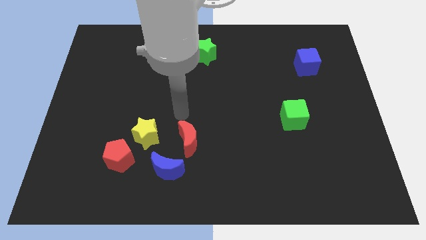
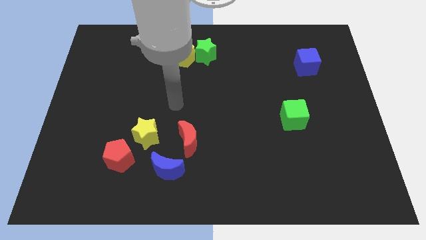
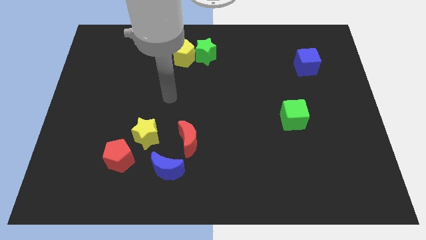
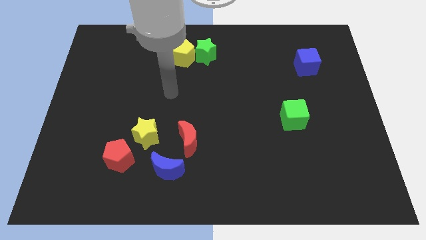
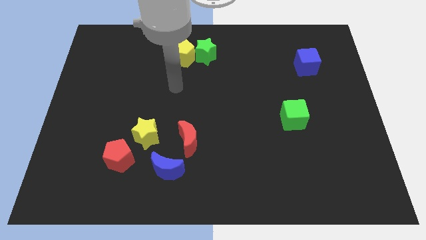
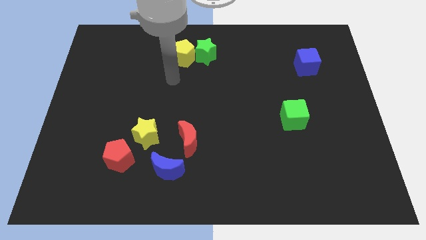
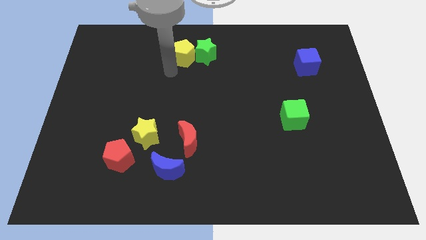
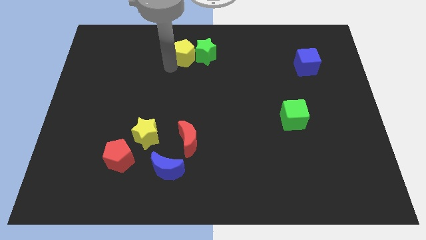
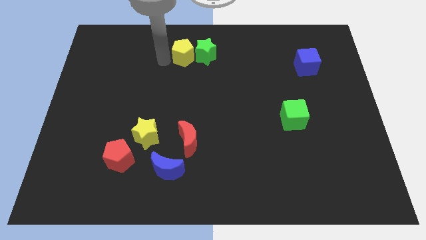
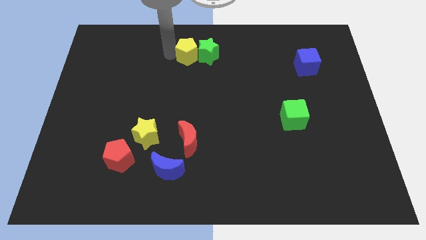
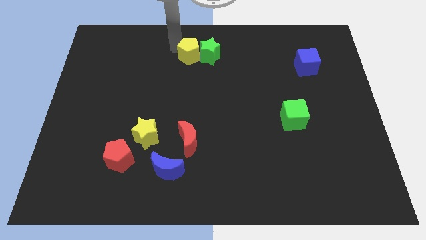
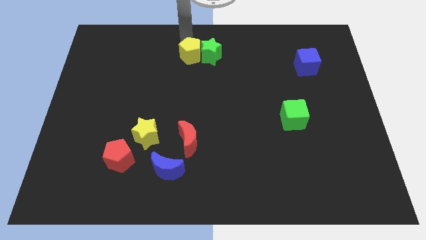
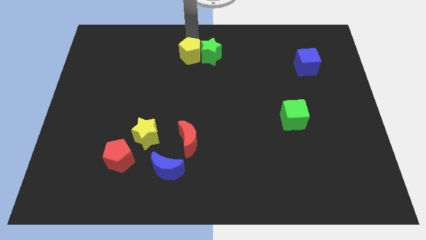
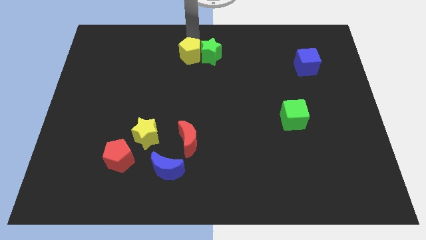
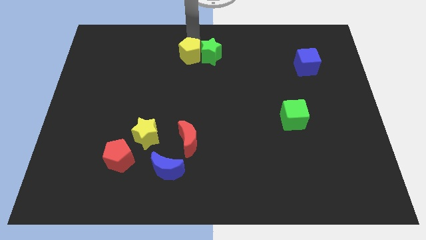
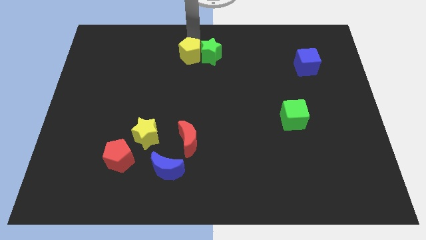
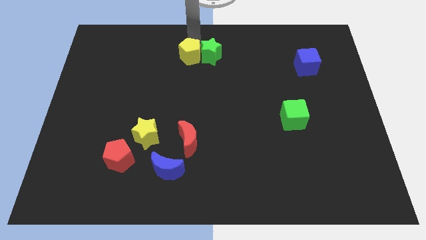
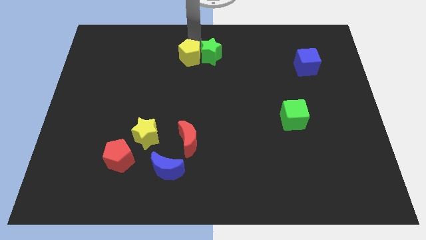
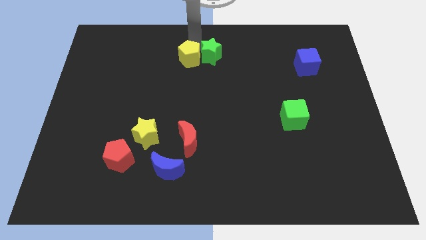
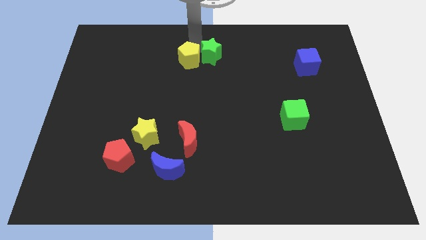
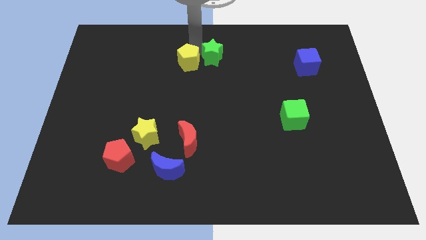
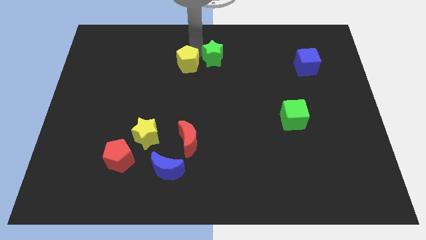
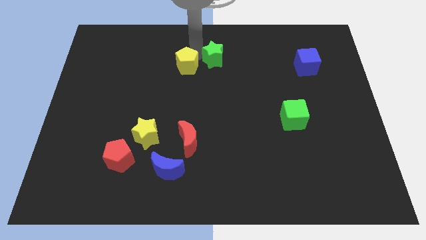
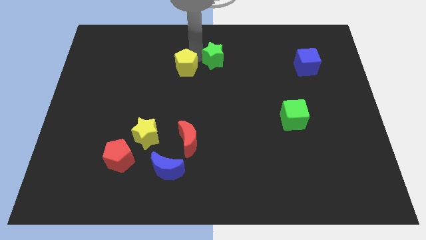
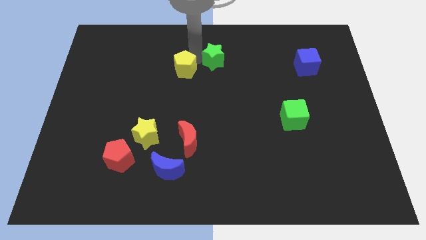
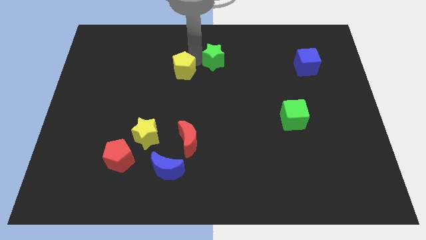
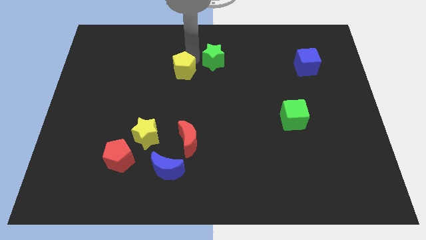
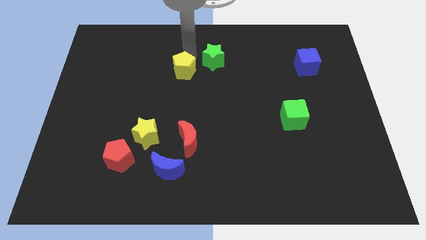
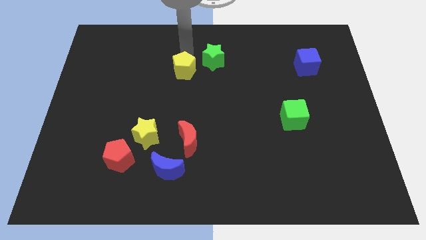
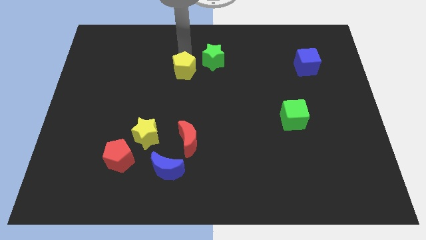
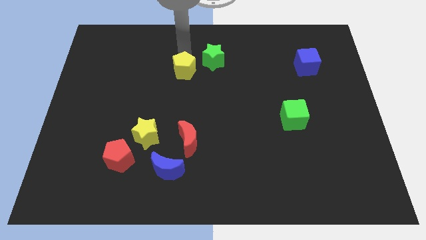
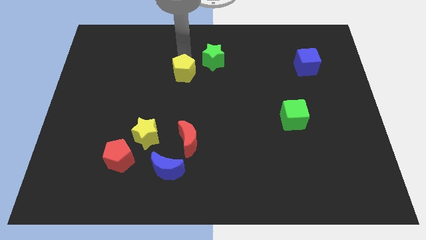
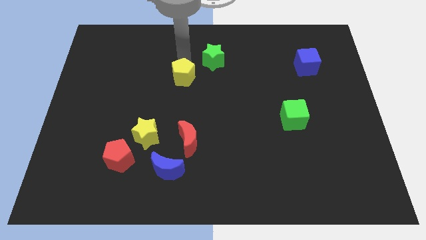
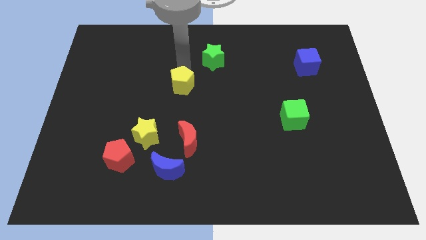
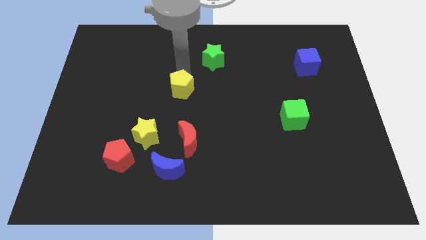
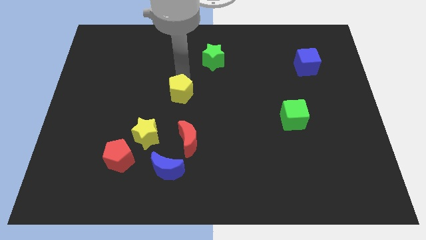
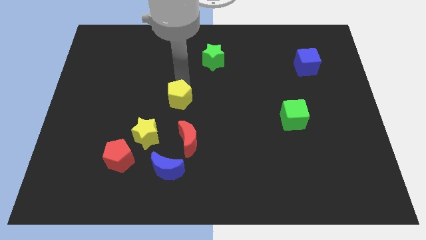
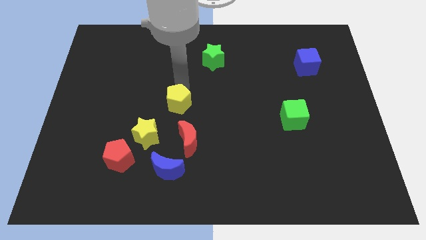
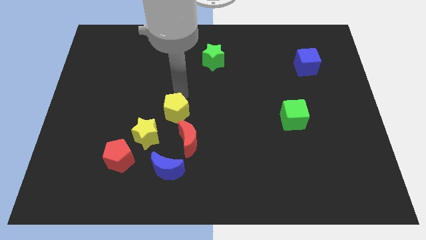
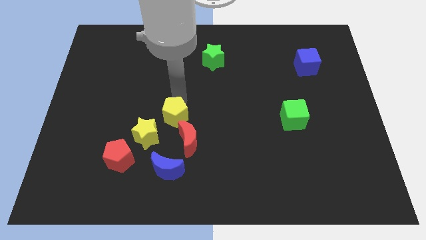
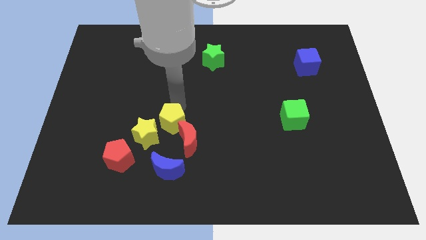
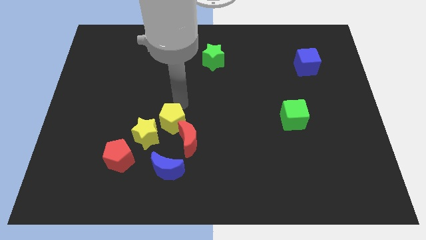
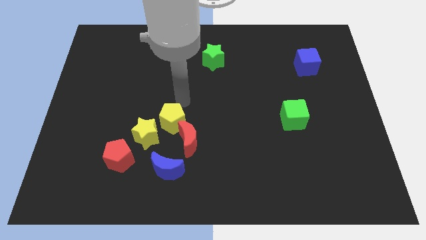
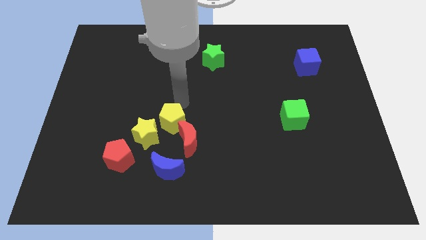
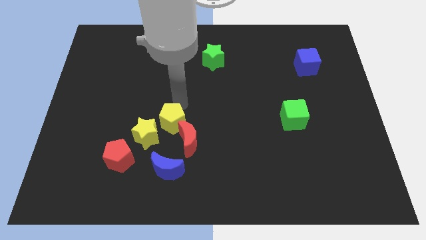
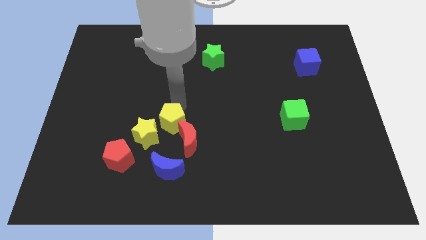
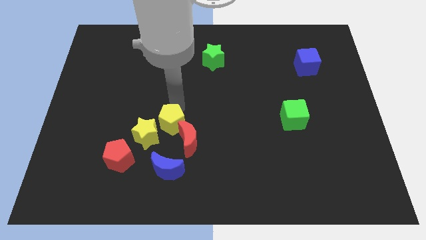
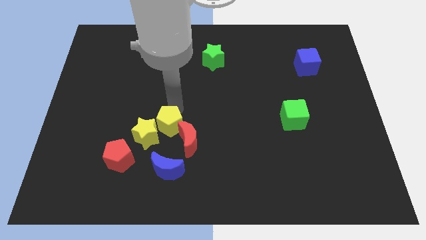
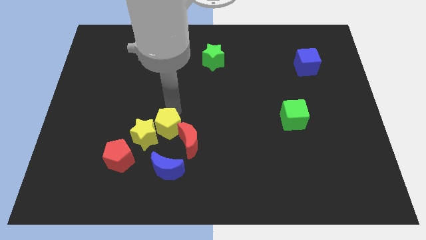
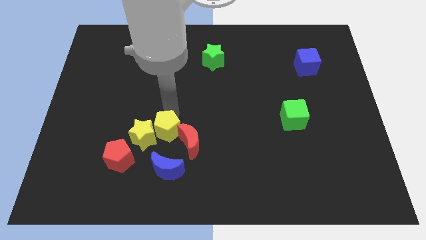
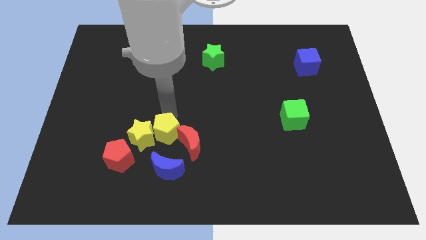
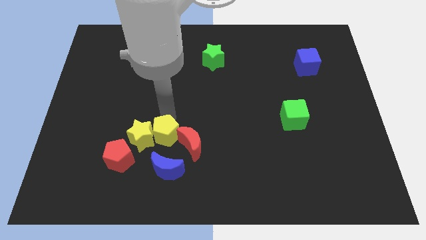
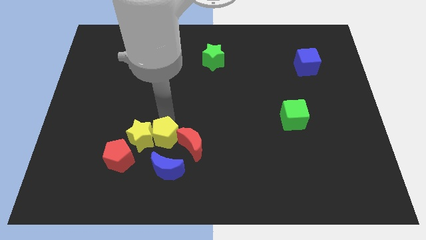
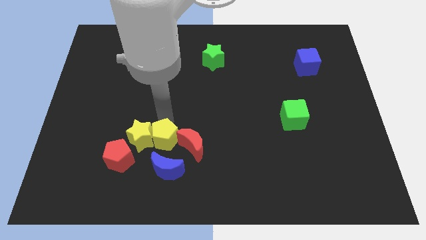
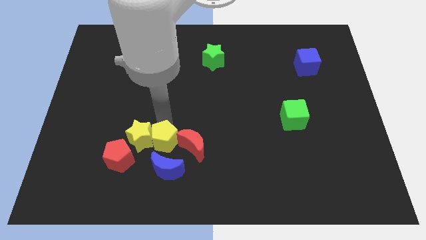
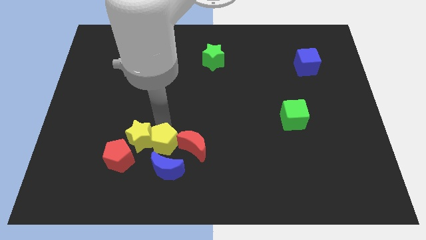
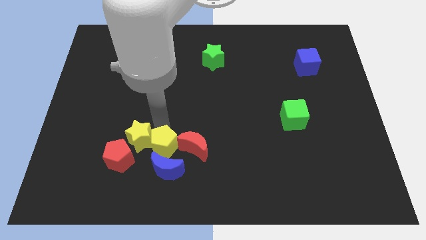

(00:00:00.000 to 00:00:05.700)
put the yellow pentagon towards the blue moon
